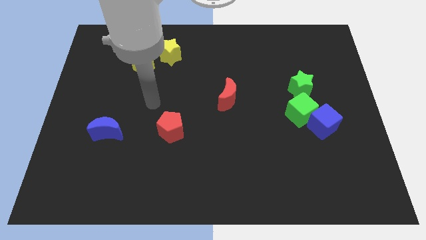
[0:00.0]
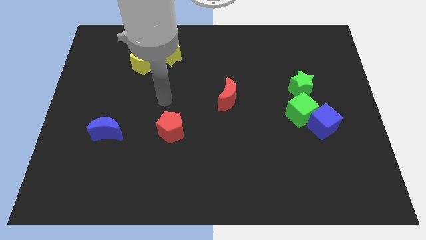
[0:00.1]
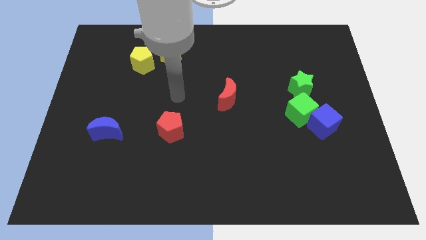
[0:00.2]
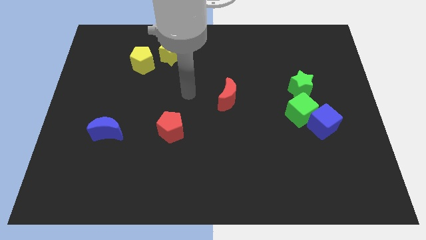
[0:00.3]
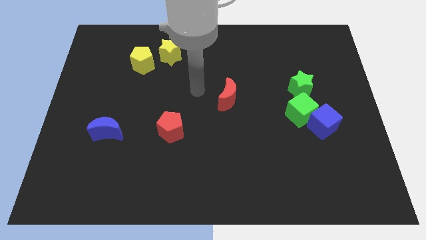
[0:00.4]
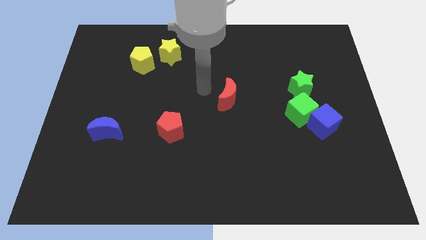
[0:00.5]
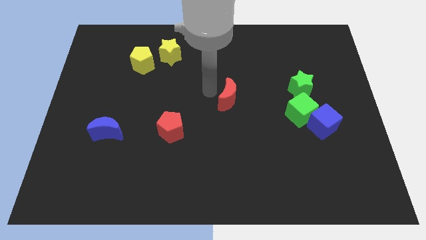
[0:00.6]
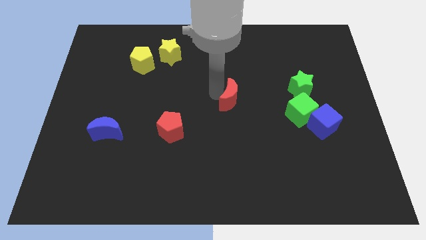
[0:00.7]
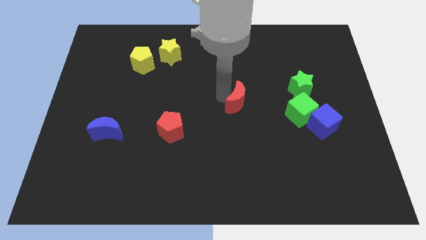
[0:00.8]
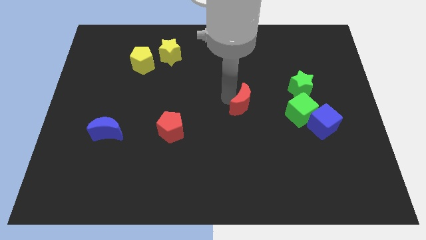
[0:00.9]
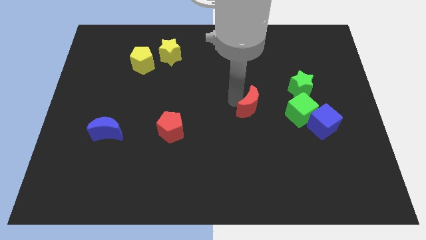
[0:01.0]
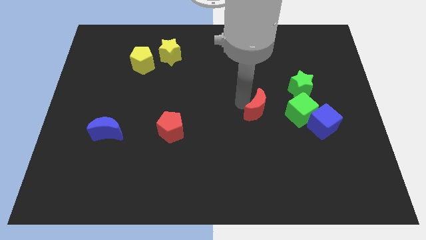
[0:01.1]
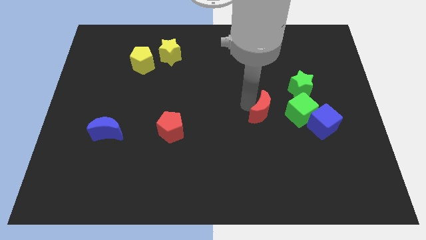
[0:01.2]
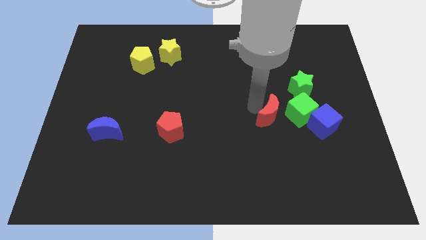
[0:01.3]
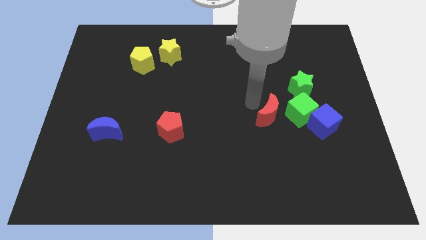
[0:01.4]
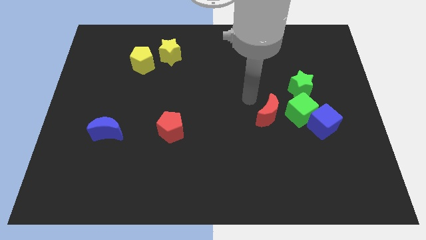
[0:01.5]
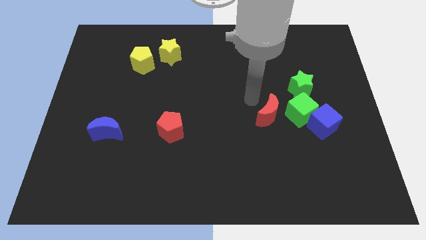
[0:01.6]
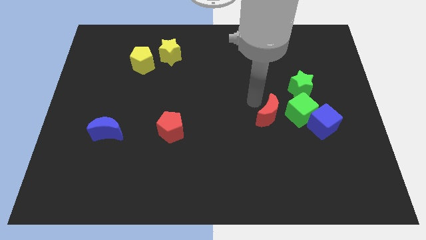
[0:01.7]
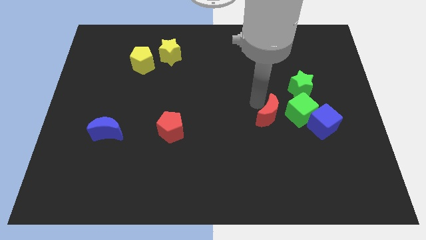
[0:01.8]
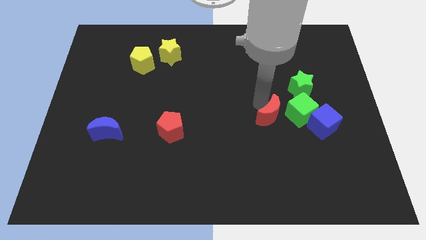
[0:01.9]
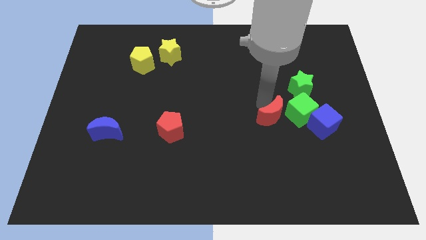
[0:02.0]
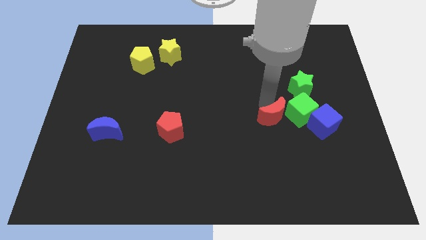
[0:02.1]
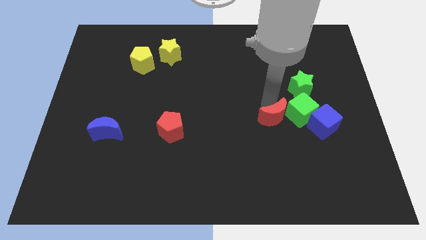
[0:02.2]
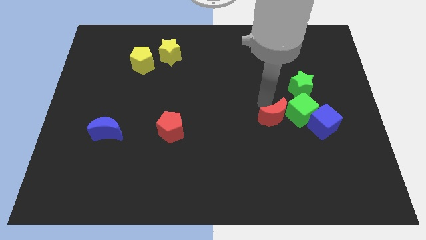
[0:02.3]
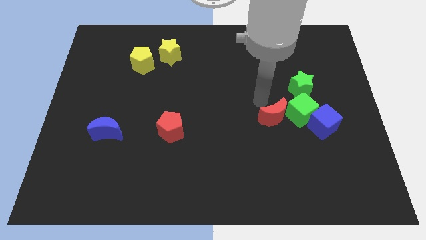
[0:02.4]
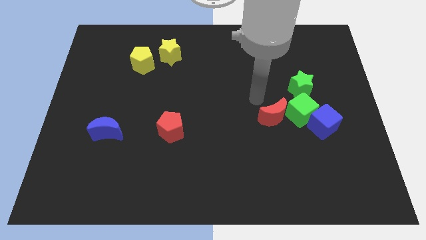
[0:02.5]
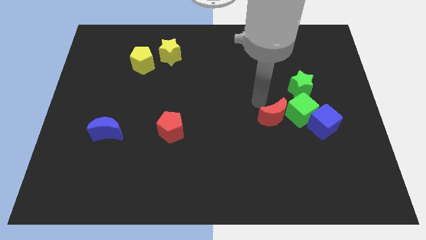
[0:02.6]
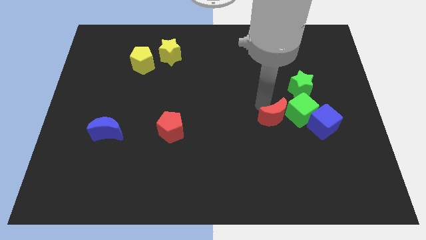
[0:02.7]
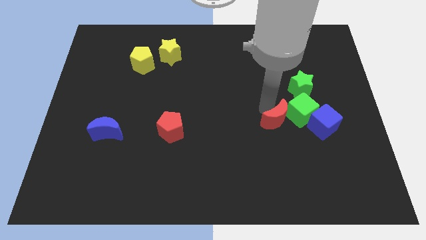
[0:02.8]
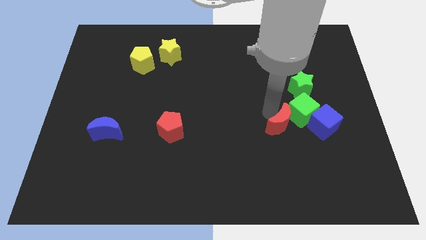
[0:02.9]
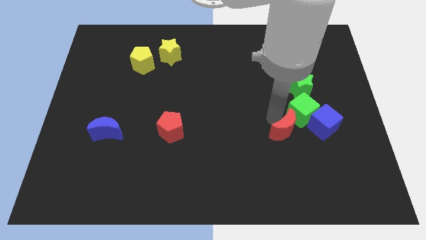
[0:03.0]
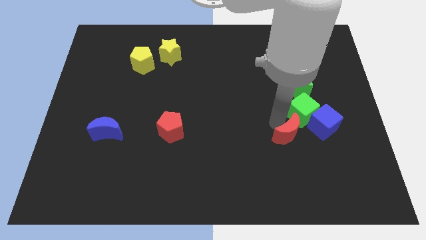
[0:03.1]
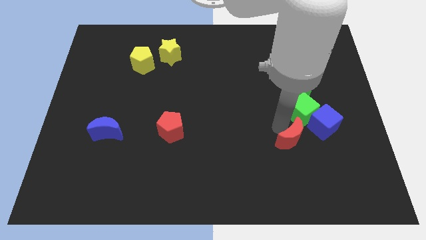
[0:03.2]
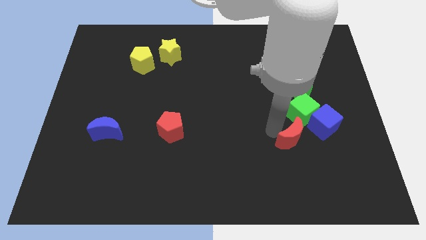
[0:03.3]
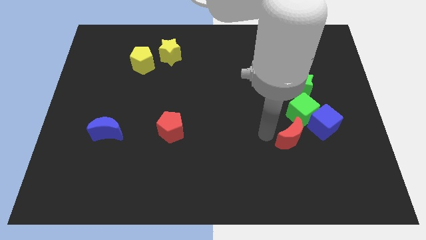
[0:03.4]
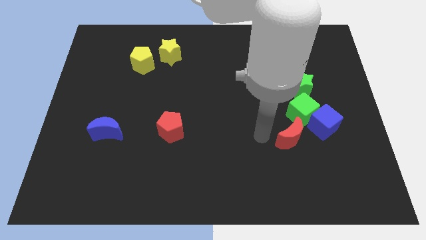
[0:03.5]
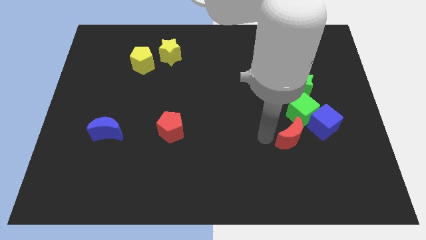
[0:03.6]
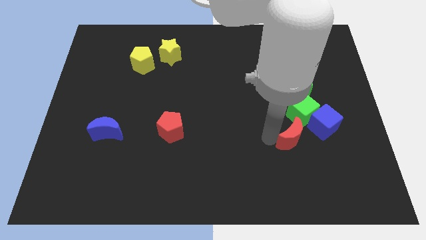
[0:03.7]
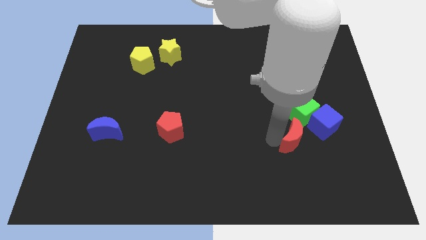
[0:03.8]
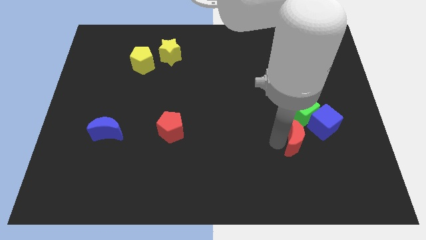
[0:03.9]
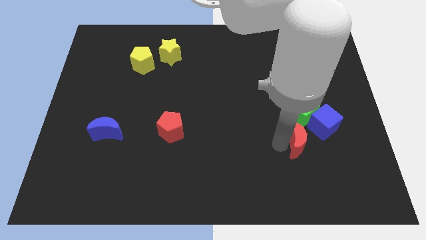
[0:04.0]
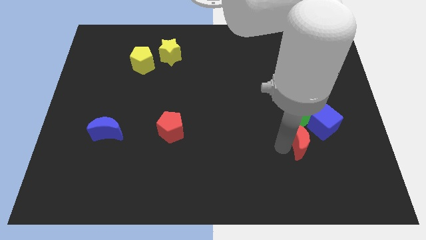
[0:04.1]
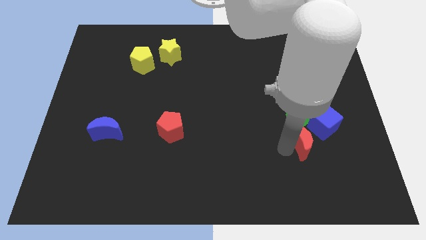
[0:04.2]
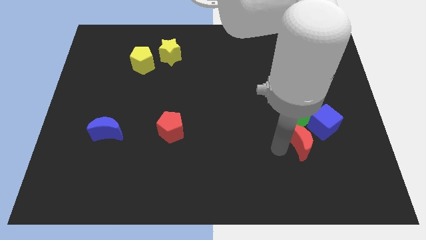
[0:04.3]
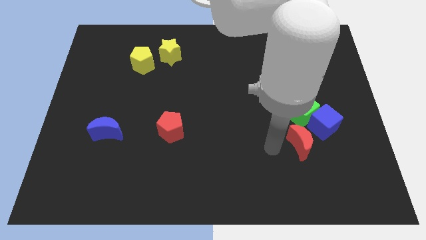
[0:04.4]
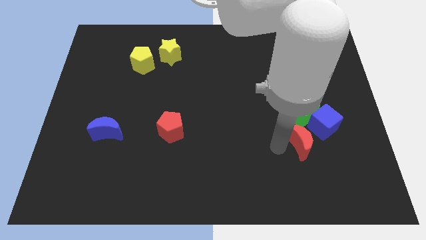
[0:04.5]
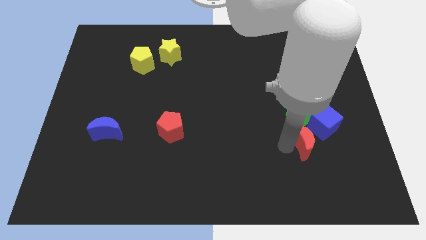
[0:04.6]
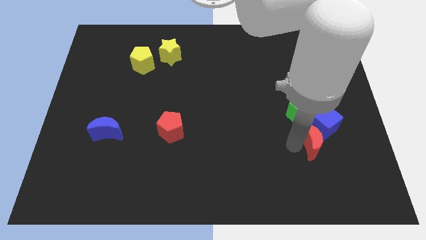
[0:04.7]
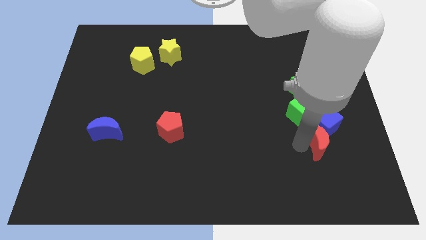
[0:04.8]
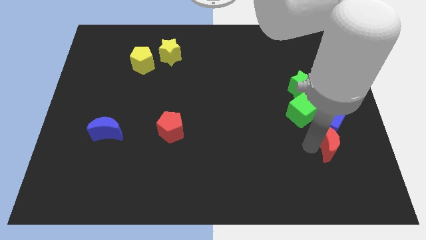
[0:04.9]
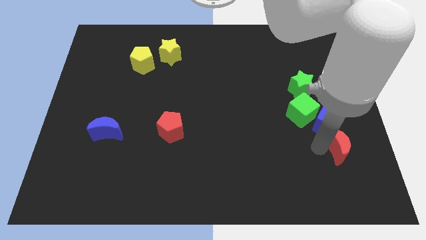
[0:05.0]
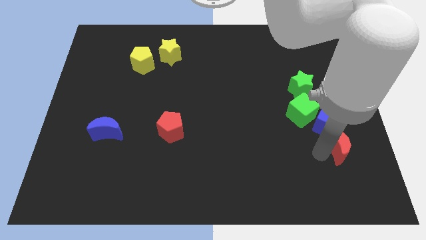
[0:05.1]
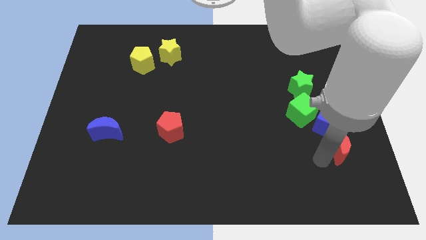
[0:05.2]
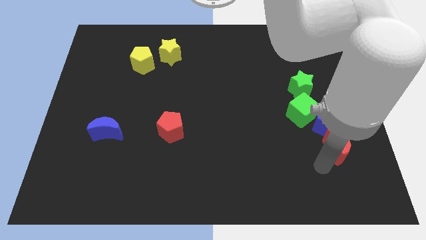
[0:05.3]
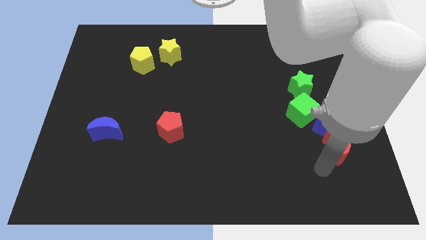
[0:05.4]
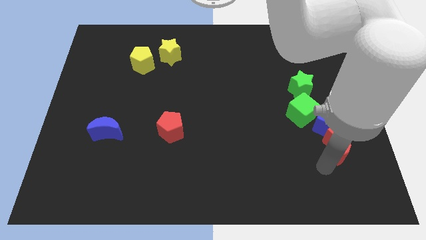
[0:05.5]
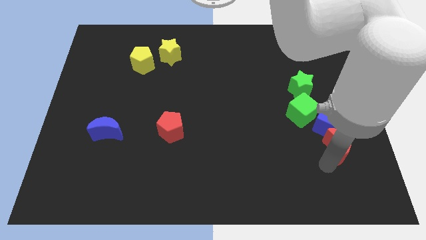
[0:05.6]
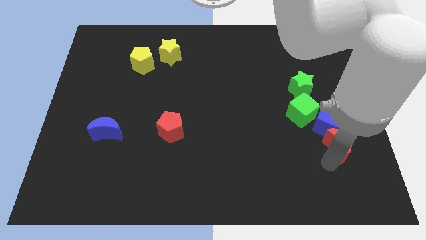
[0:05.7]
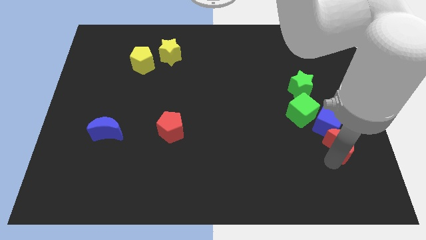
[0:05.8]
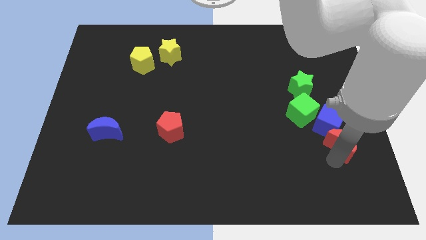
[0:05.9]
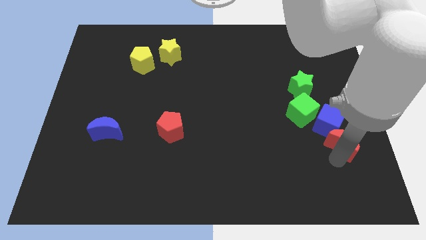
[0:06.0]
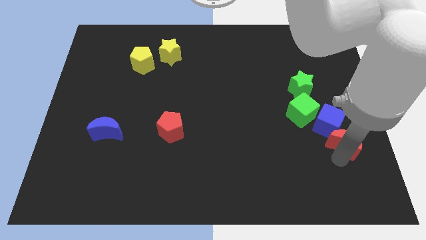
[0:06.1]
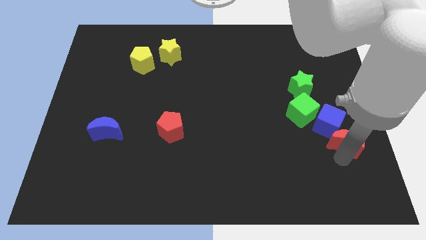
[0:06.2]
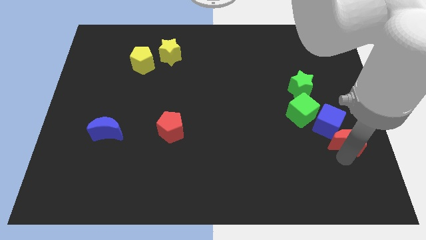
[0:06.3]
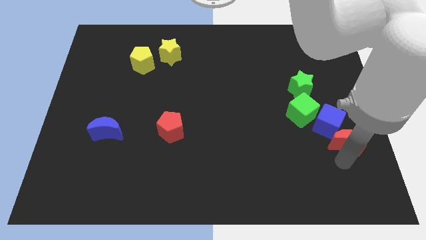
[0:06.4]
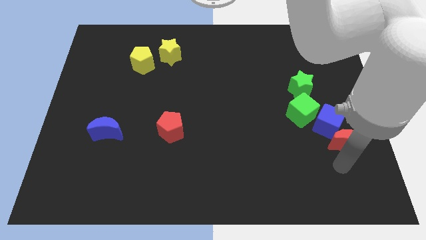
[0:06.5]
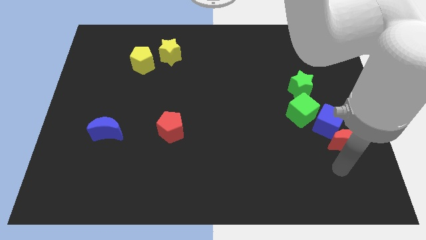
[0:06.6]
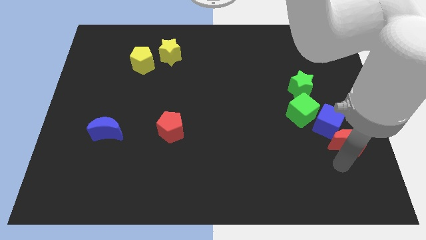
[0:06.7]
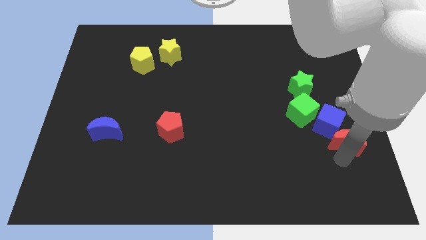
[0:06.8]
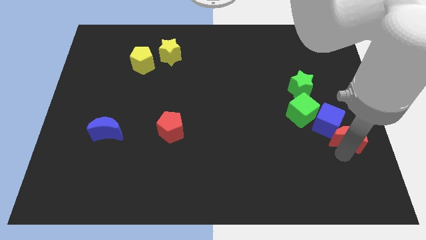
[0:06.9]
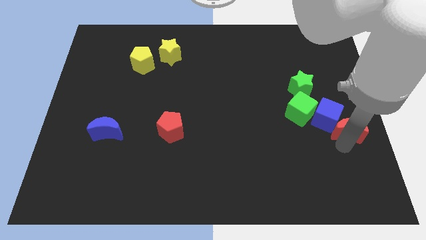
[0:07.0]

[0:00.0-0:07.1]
put the red moon to the right side
